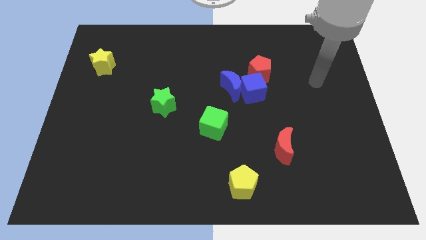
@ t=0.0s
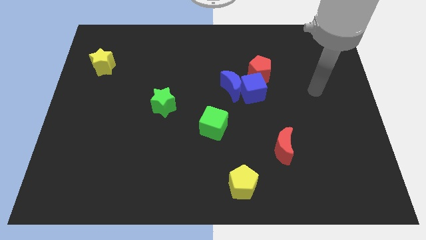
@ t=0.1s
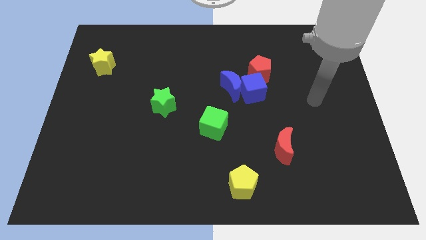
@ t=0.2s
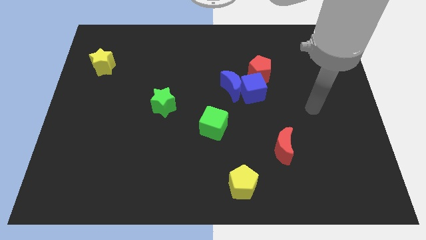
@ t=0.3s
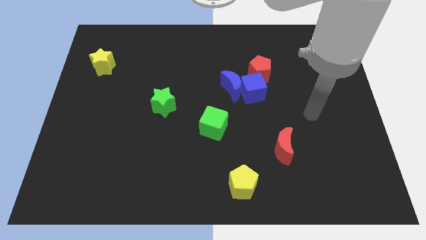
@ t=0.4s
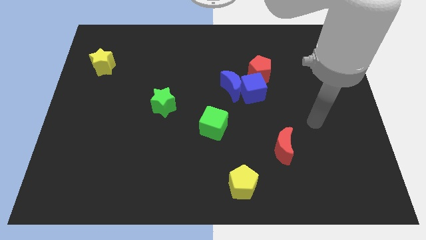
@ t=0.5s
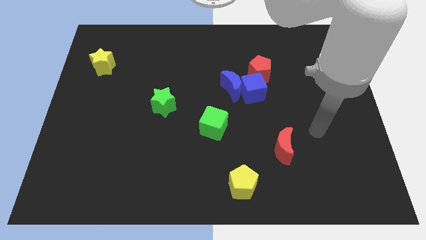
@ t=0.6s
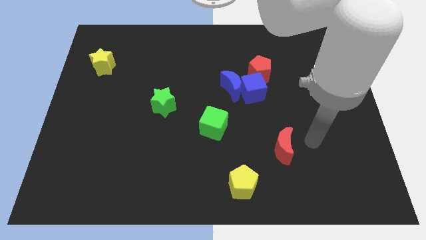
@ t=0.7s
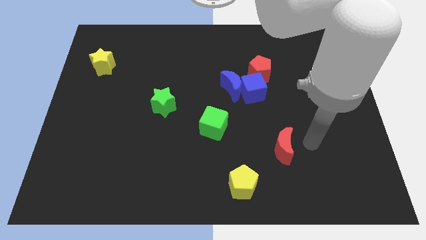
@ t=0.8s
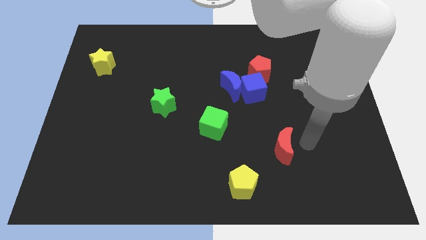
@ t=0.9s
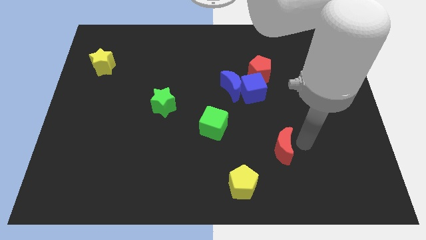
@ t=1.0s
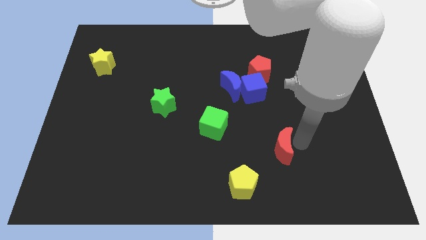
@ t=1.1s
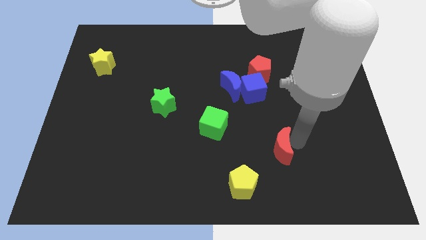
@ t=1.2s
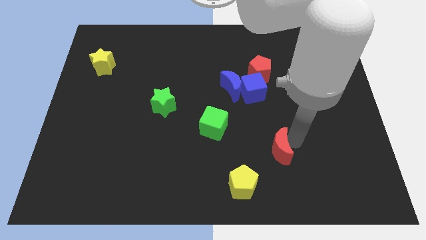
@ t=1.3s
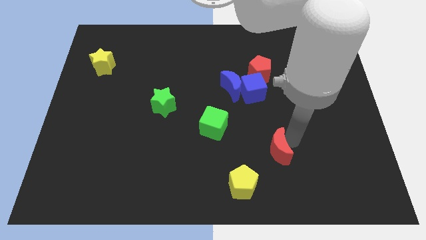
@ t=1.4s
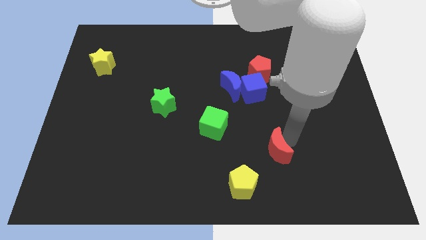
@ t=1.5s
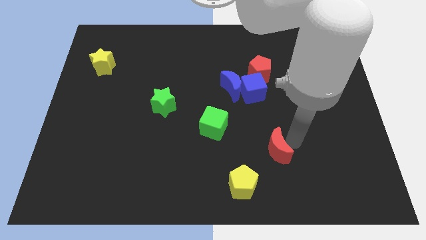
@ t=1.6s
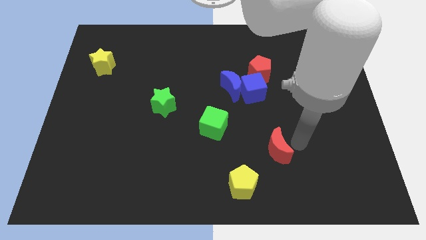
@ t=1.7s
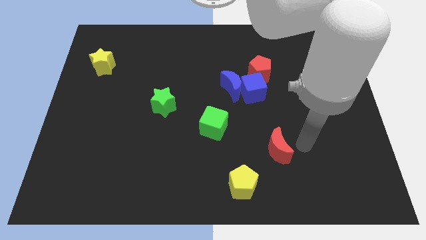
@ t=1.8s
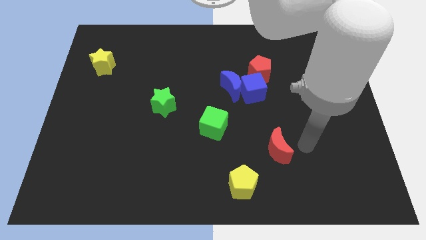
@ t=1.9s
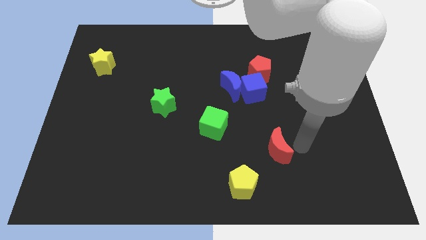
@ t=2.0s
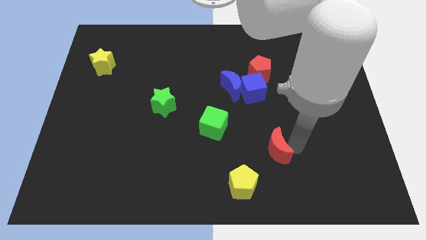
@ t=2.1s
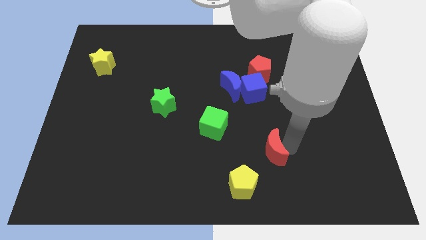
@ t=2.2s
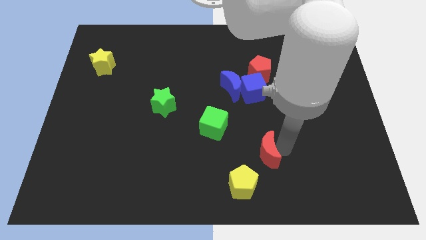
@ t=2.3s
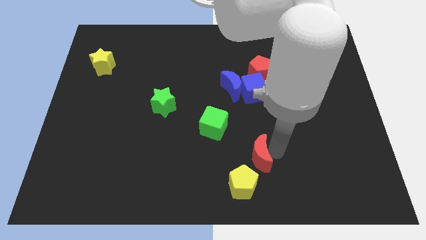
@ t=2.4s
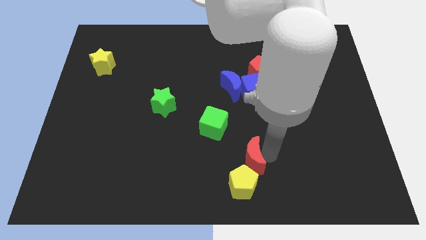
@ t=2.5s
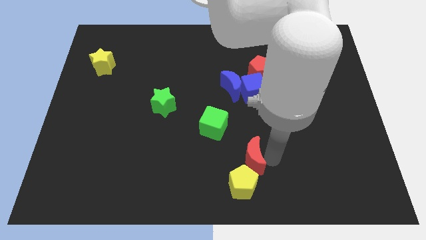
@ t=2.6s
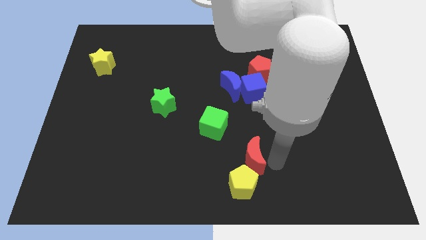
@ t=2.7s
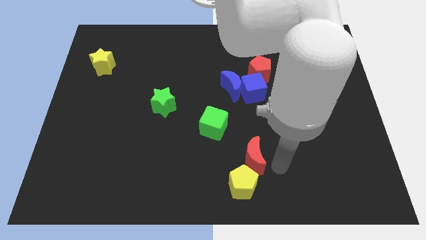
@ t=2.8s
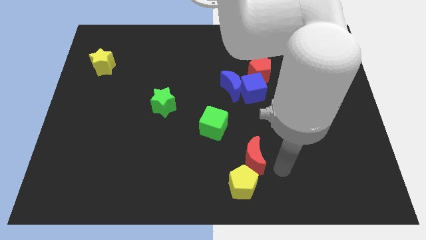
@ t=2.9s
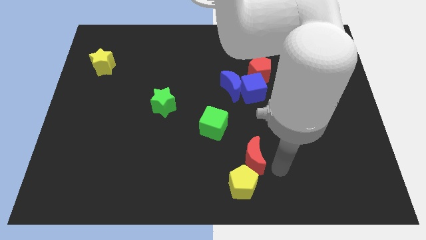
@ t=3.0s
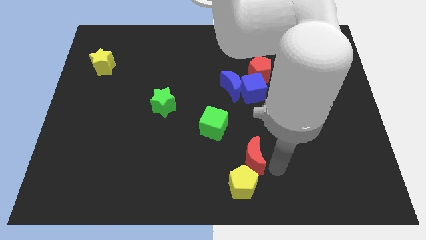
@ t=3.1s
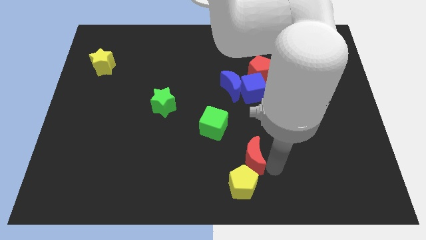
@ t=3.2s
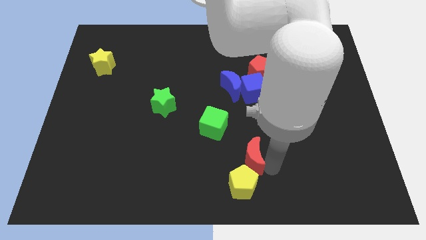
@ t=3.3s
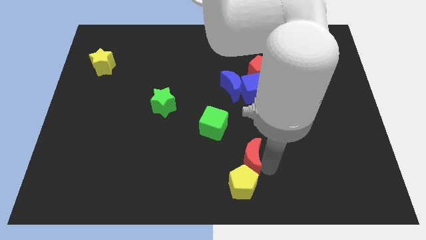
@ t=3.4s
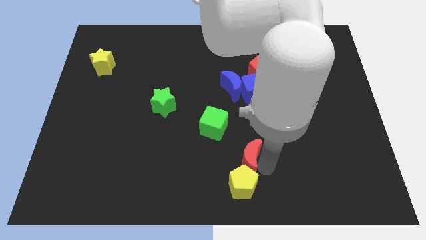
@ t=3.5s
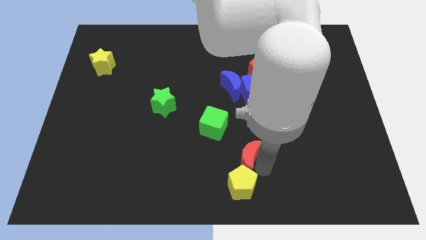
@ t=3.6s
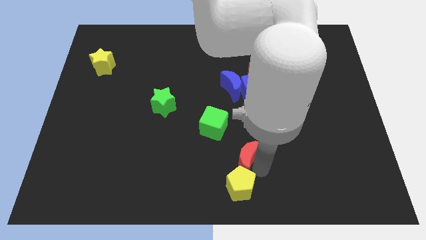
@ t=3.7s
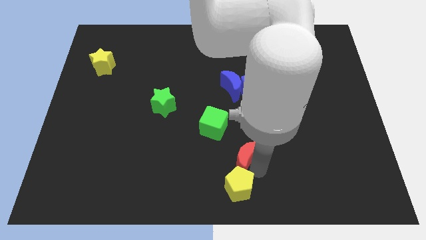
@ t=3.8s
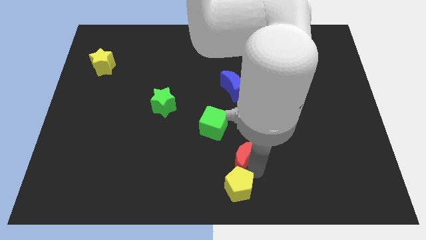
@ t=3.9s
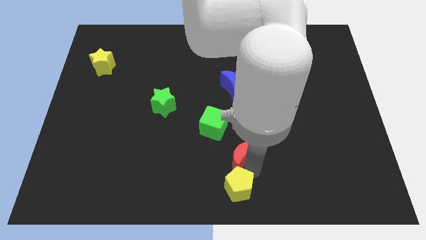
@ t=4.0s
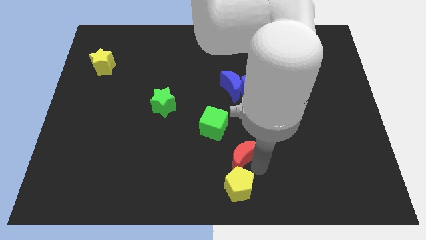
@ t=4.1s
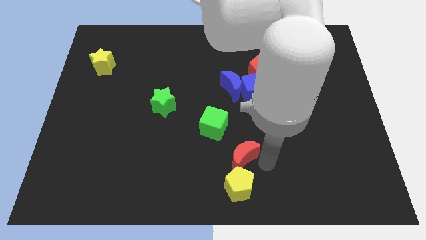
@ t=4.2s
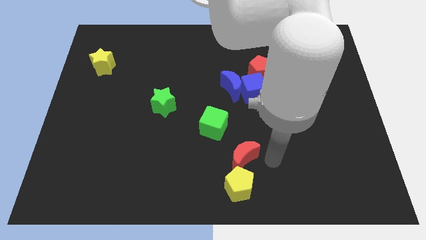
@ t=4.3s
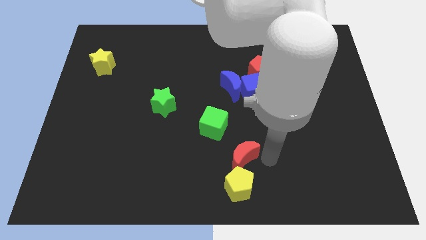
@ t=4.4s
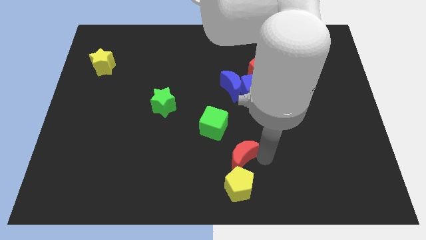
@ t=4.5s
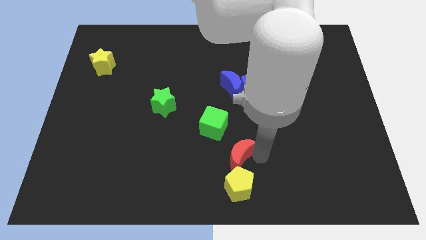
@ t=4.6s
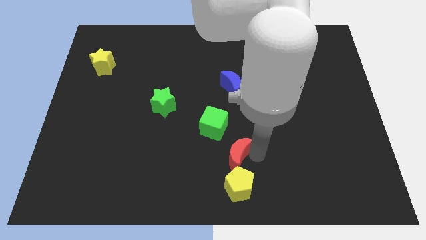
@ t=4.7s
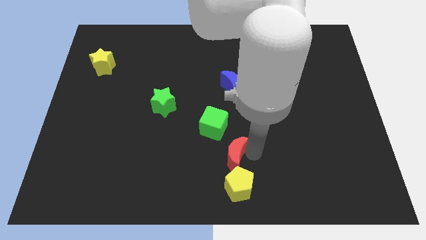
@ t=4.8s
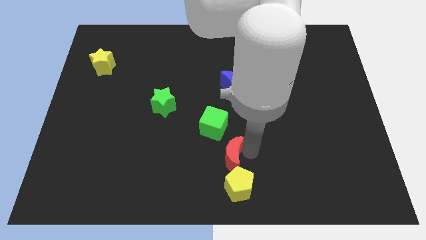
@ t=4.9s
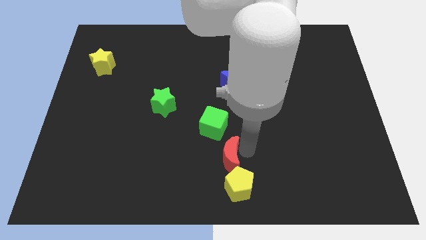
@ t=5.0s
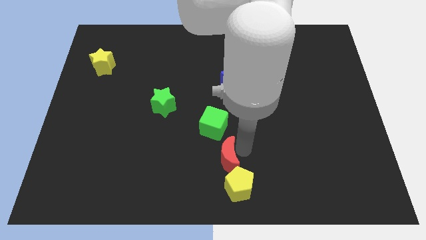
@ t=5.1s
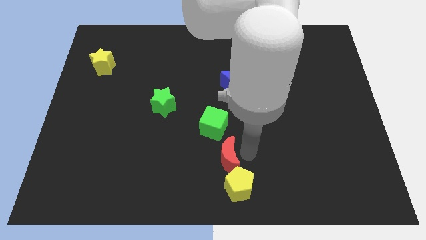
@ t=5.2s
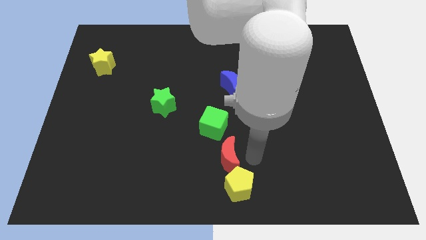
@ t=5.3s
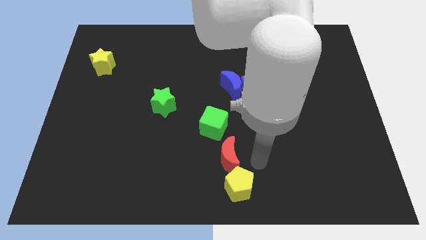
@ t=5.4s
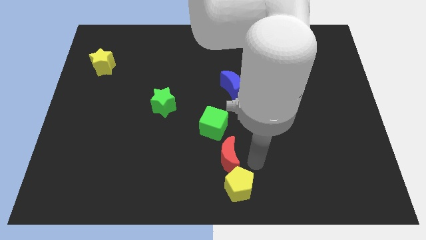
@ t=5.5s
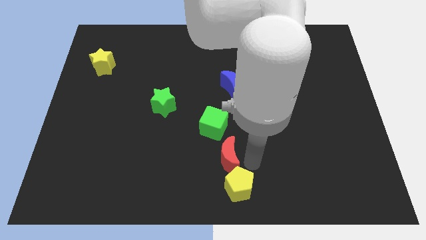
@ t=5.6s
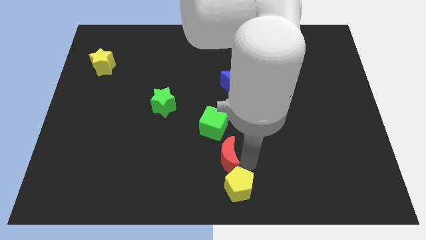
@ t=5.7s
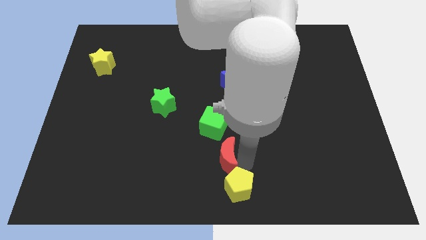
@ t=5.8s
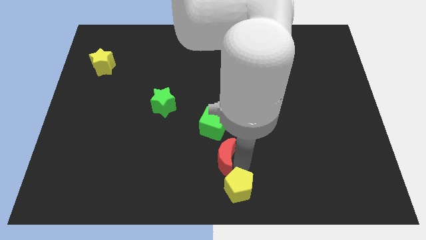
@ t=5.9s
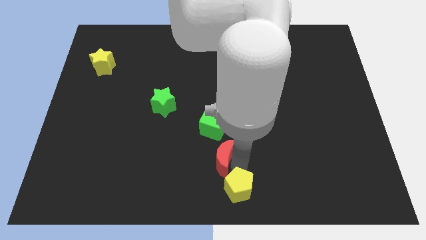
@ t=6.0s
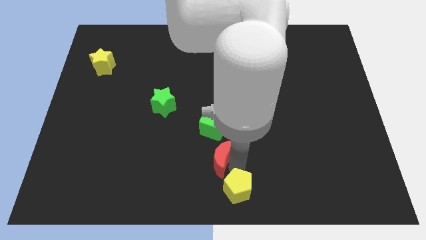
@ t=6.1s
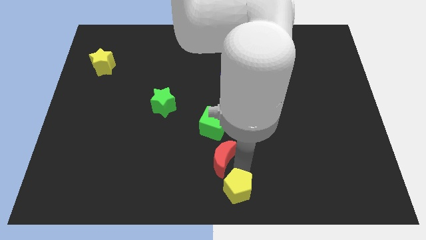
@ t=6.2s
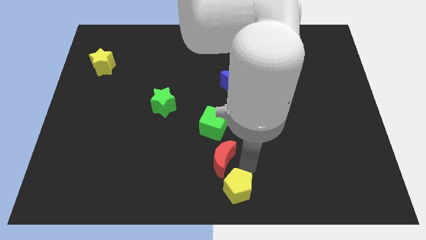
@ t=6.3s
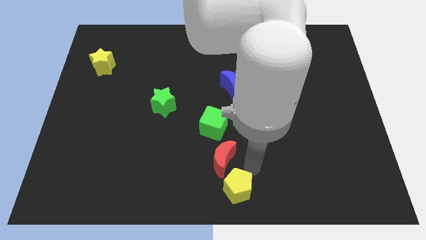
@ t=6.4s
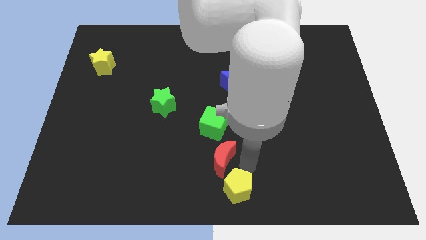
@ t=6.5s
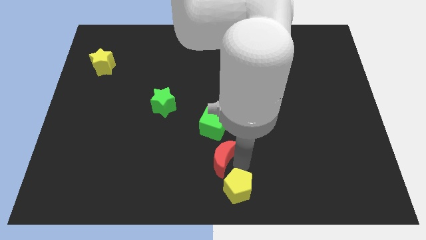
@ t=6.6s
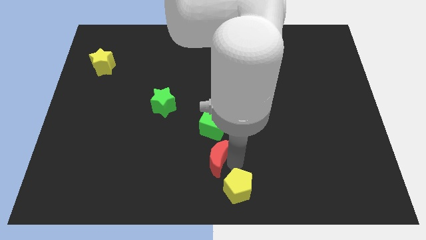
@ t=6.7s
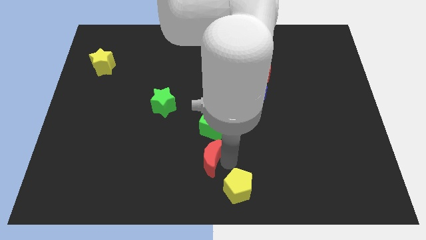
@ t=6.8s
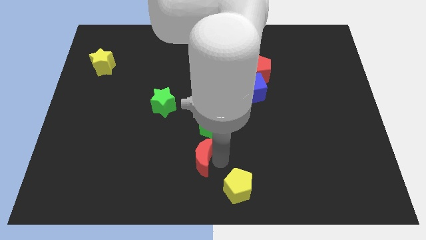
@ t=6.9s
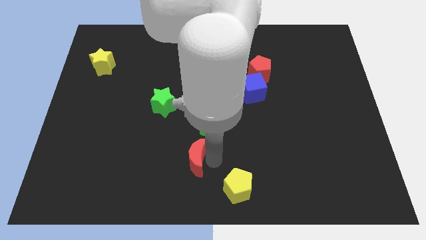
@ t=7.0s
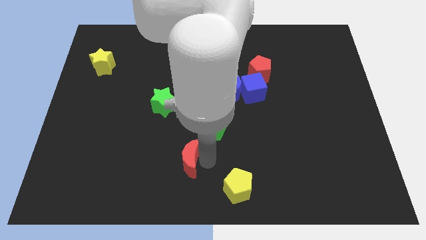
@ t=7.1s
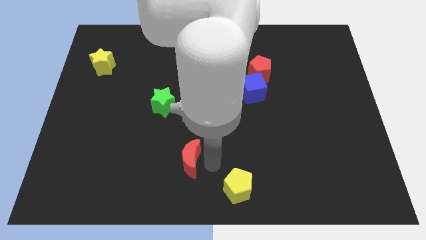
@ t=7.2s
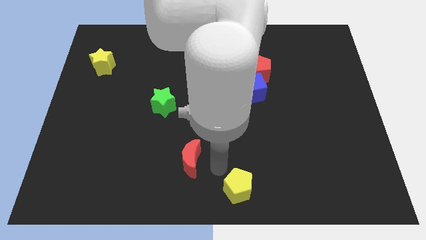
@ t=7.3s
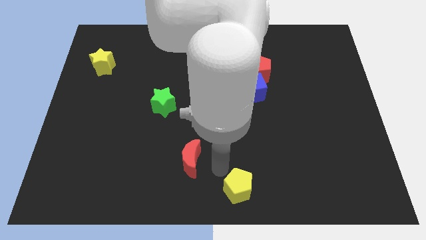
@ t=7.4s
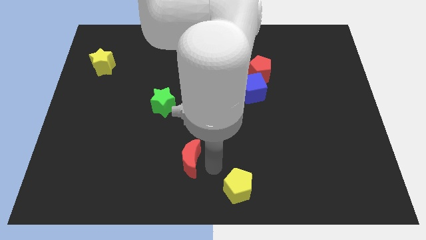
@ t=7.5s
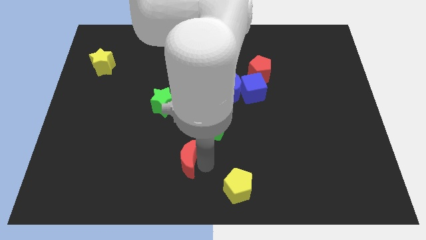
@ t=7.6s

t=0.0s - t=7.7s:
move the red moon left

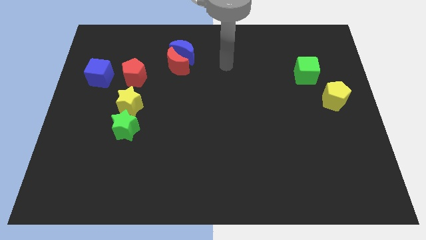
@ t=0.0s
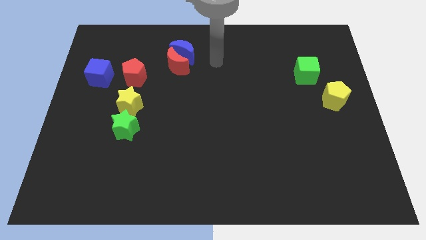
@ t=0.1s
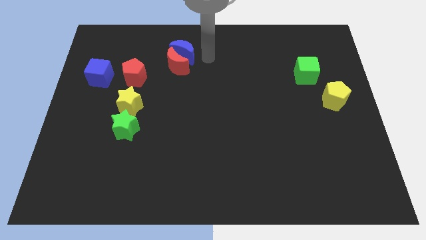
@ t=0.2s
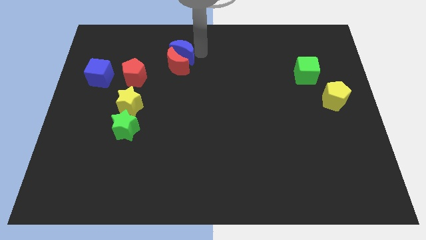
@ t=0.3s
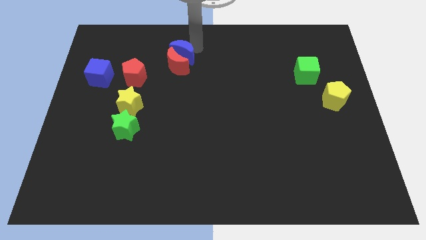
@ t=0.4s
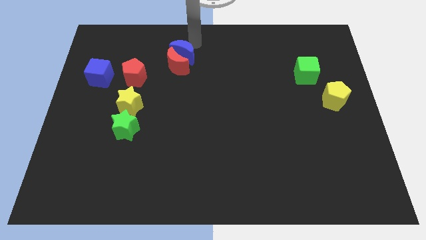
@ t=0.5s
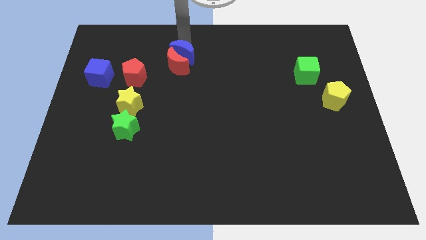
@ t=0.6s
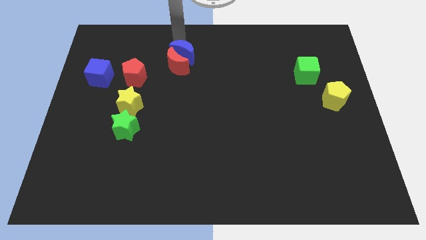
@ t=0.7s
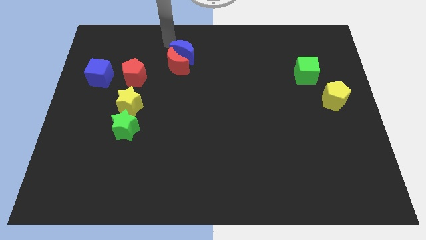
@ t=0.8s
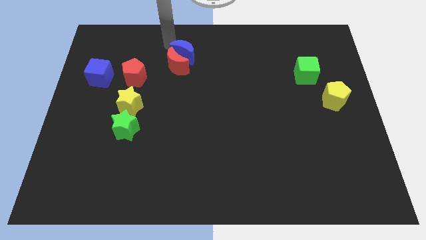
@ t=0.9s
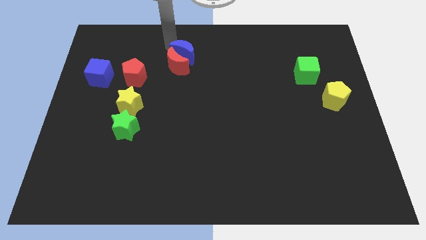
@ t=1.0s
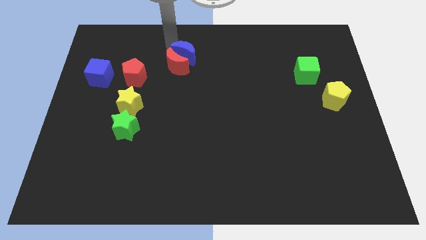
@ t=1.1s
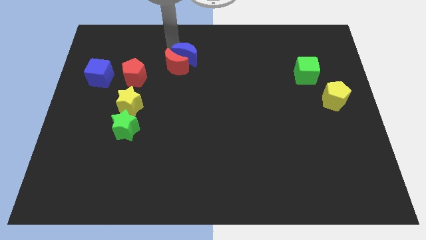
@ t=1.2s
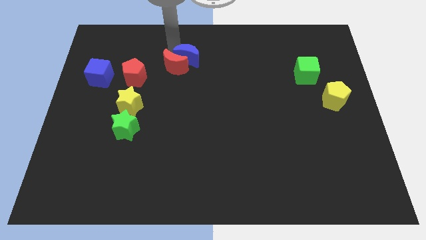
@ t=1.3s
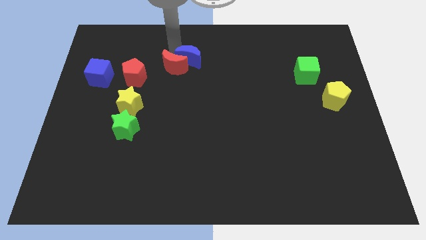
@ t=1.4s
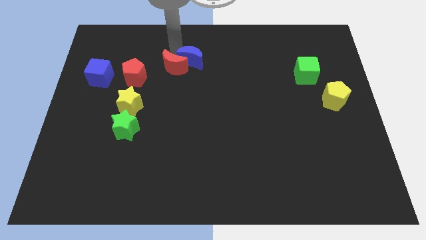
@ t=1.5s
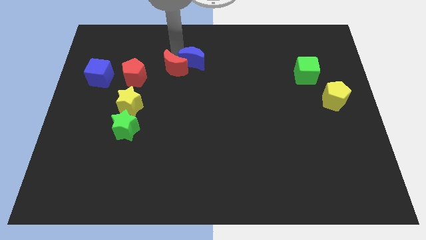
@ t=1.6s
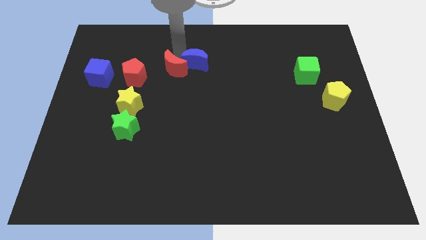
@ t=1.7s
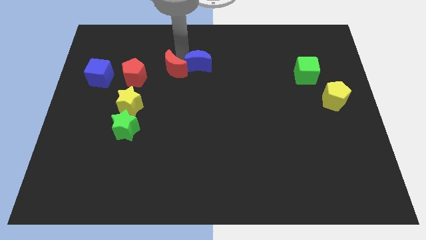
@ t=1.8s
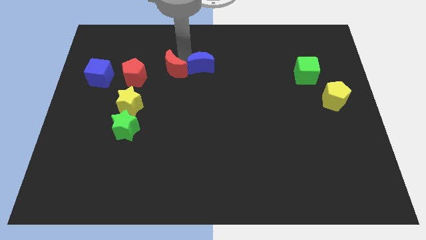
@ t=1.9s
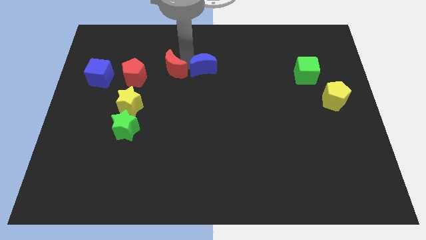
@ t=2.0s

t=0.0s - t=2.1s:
move the blue moon somewhat downwards and then right
